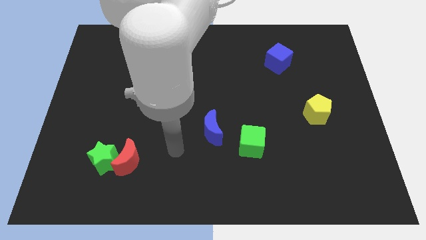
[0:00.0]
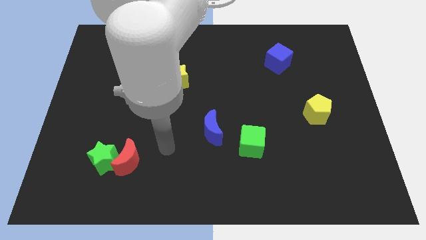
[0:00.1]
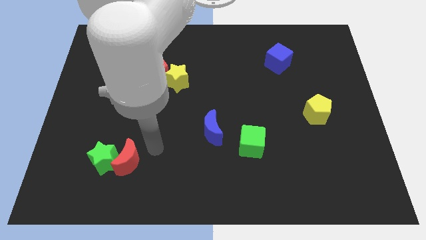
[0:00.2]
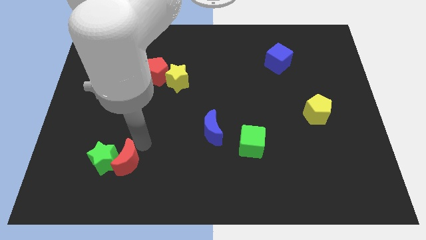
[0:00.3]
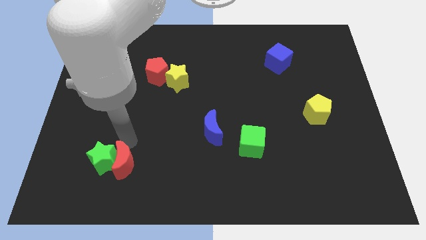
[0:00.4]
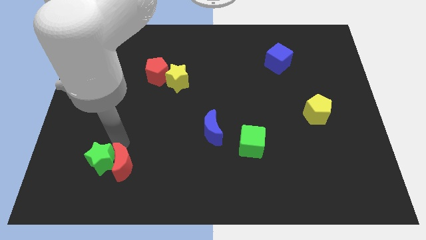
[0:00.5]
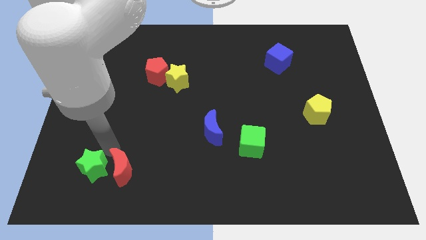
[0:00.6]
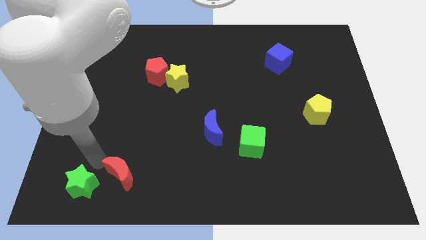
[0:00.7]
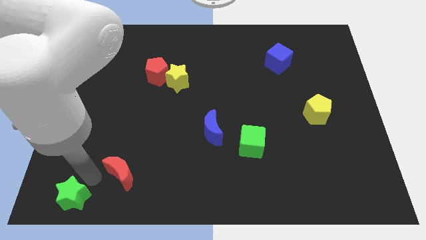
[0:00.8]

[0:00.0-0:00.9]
move the red moon away from the green star

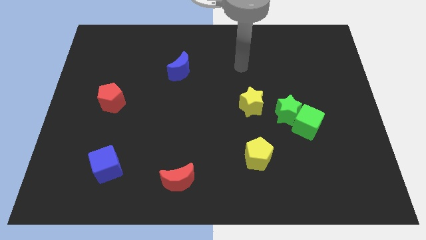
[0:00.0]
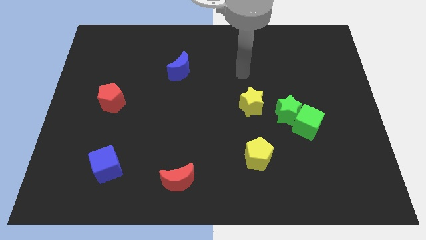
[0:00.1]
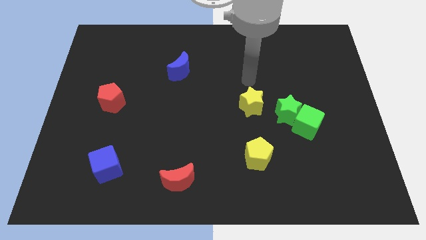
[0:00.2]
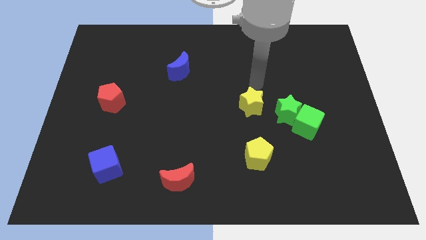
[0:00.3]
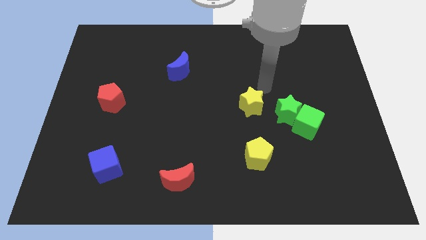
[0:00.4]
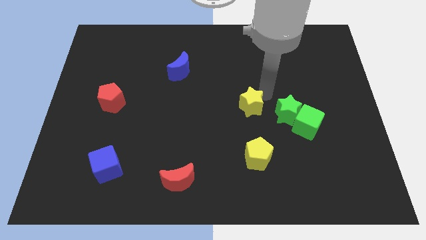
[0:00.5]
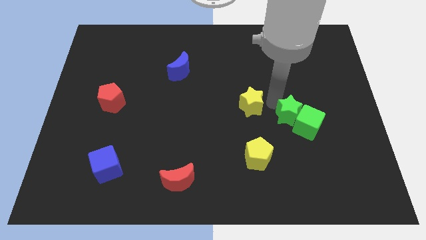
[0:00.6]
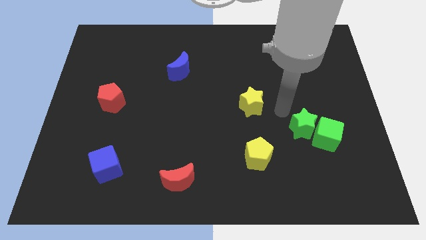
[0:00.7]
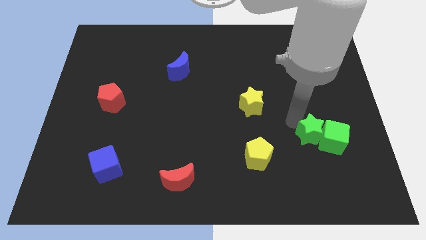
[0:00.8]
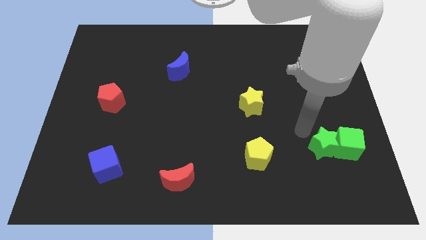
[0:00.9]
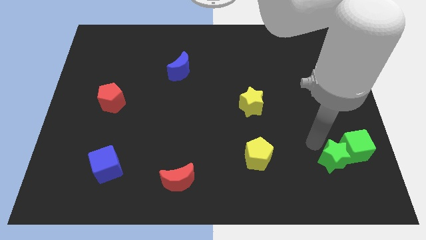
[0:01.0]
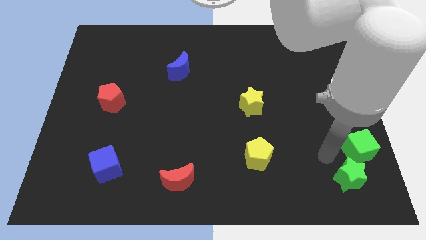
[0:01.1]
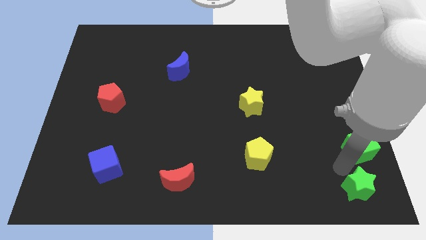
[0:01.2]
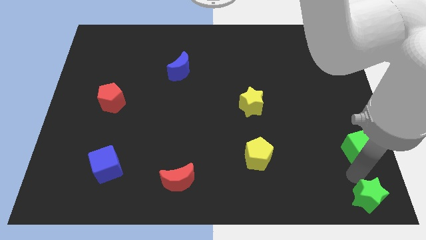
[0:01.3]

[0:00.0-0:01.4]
separate the green cube from the green star

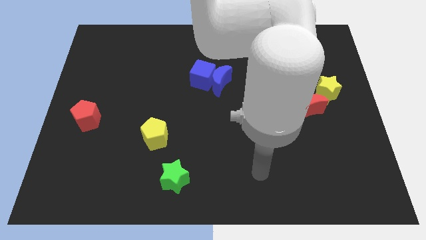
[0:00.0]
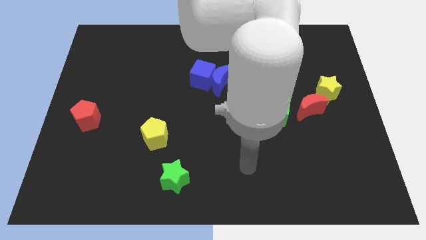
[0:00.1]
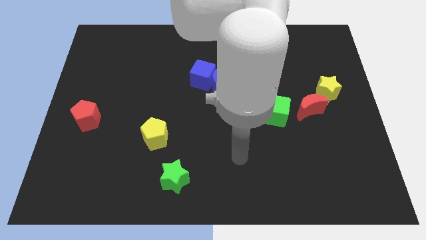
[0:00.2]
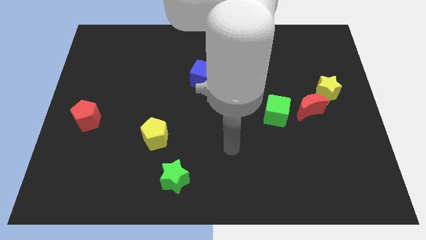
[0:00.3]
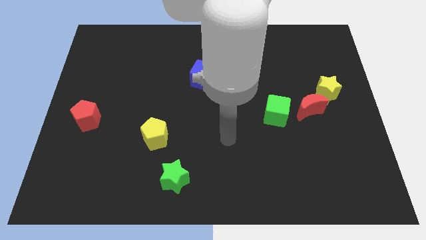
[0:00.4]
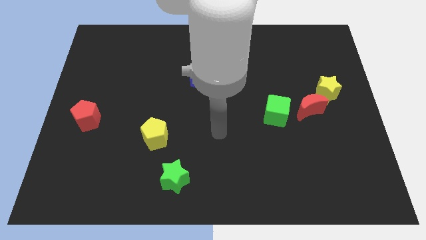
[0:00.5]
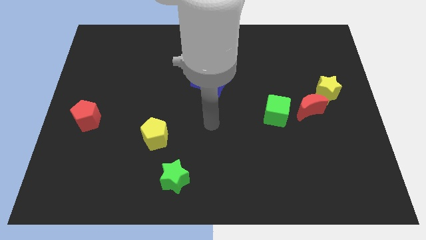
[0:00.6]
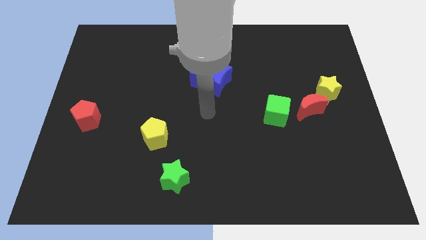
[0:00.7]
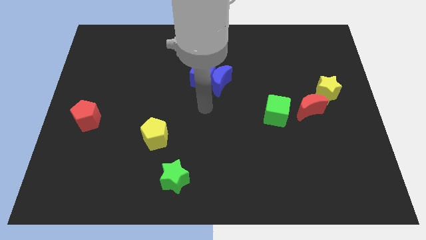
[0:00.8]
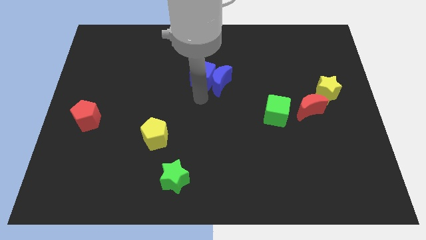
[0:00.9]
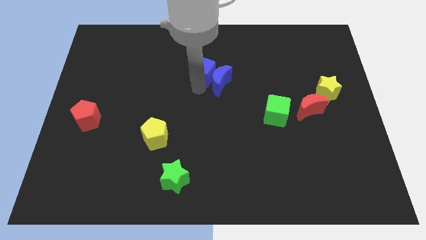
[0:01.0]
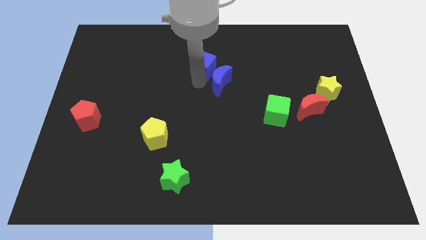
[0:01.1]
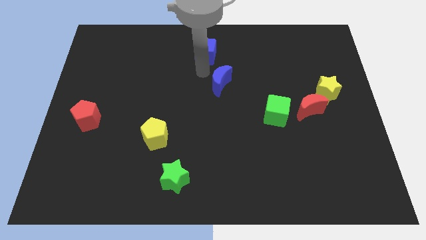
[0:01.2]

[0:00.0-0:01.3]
move the blue moon away from the blue cube

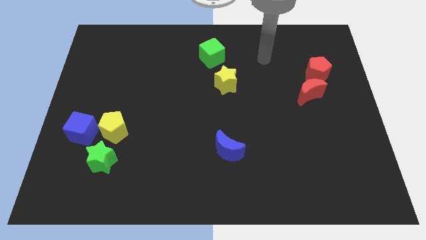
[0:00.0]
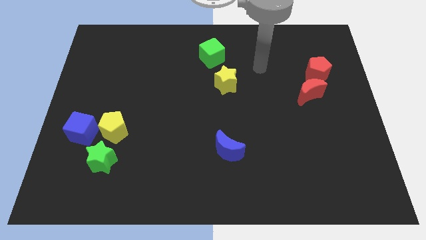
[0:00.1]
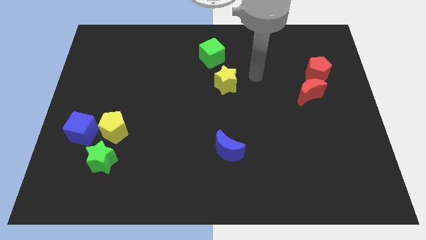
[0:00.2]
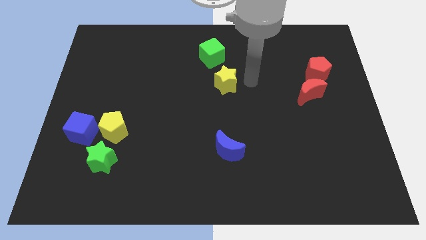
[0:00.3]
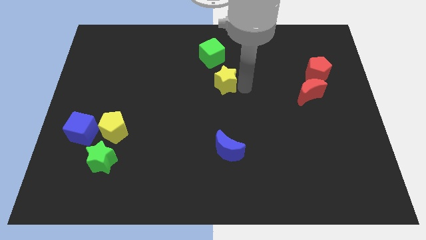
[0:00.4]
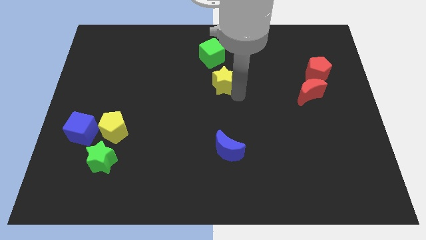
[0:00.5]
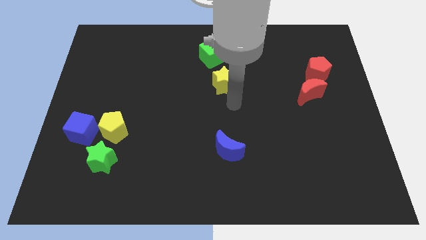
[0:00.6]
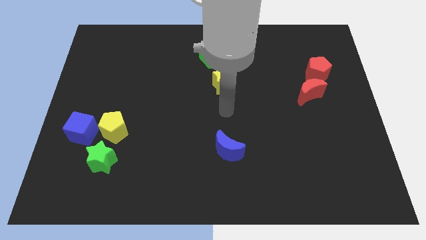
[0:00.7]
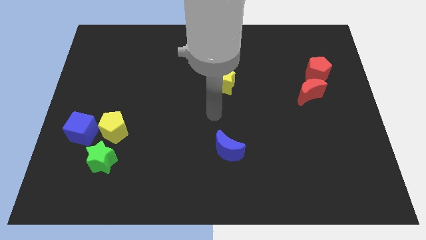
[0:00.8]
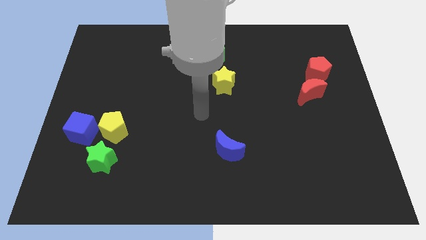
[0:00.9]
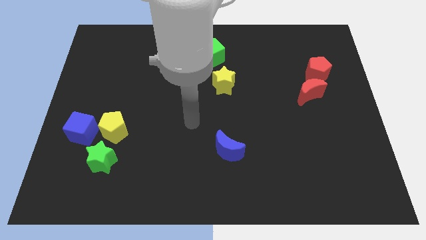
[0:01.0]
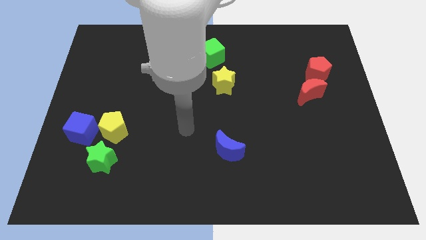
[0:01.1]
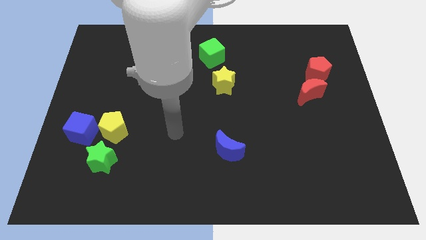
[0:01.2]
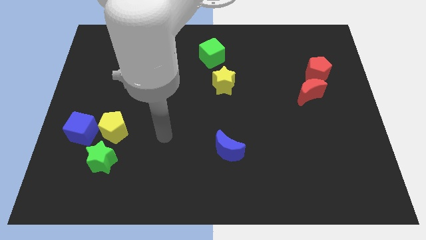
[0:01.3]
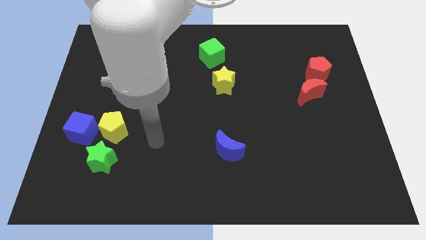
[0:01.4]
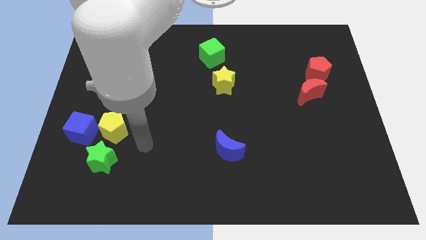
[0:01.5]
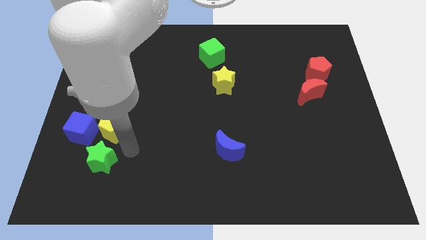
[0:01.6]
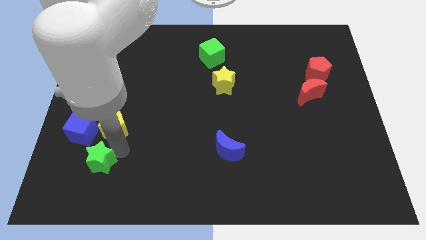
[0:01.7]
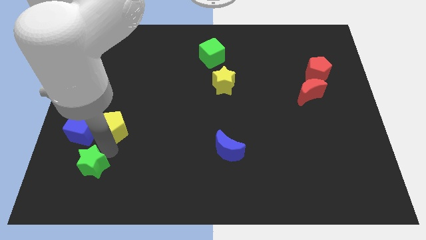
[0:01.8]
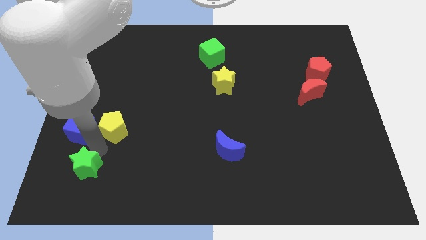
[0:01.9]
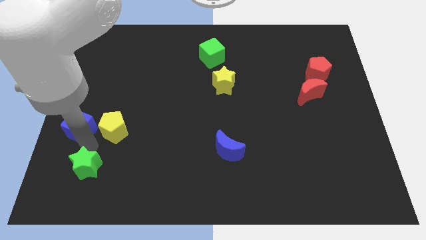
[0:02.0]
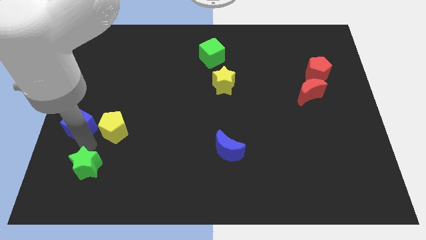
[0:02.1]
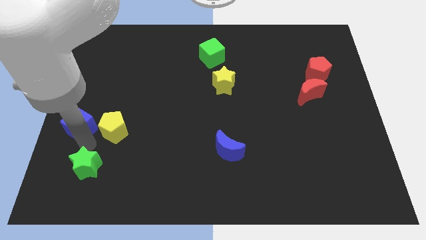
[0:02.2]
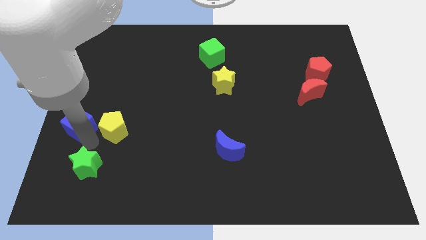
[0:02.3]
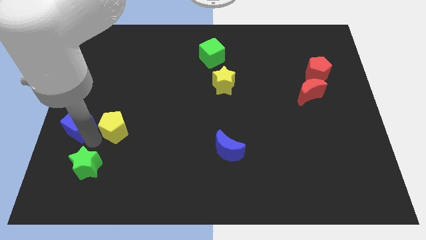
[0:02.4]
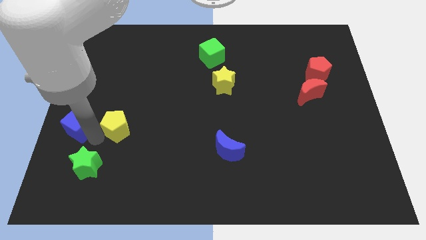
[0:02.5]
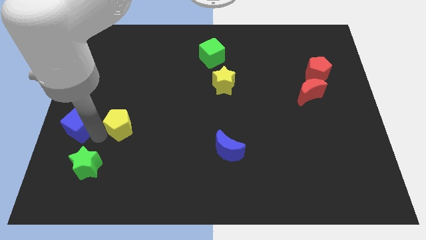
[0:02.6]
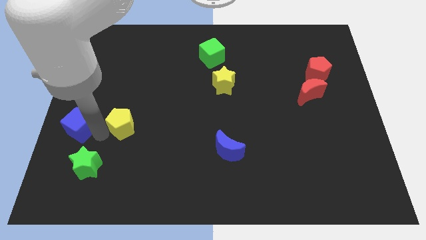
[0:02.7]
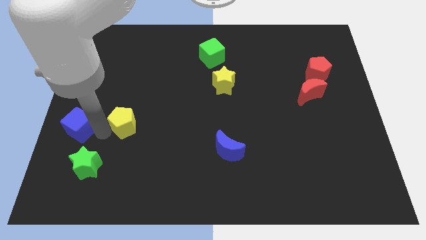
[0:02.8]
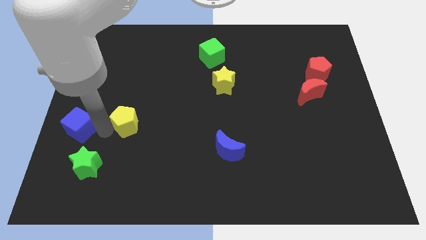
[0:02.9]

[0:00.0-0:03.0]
move the yellow pentagon away from the blue cube and green star

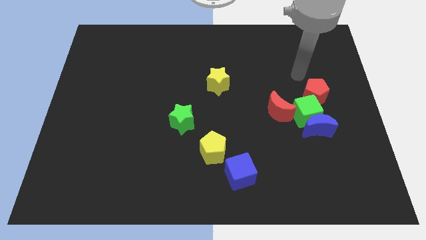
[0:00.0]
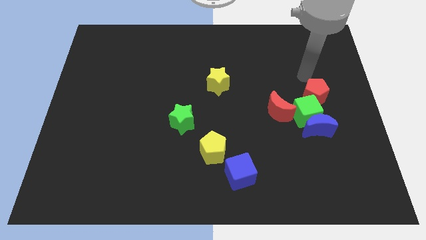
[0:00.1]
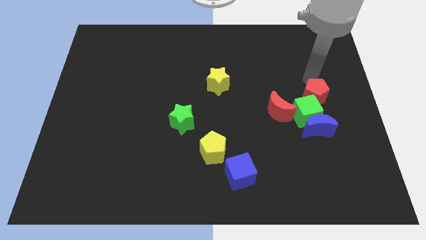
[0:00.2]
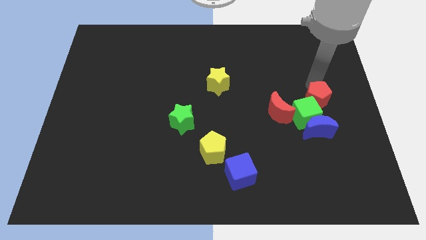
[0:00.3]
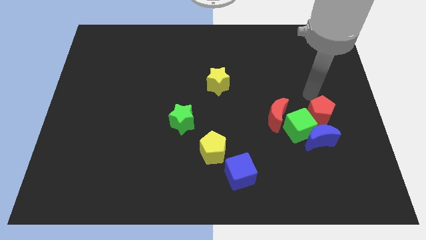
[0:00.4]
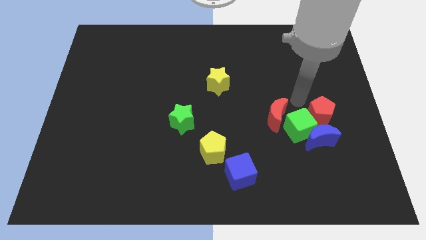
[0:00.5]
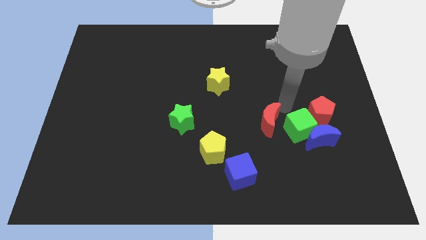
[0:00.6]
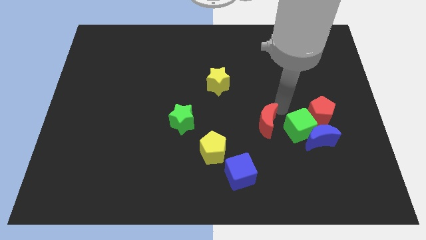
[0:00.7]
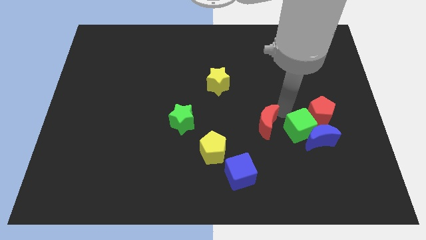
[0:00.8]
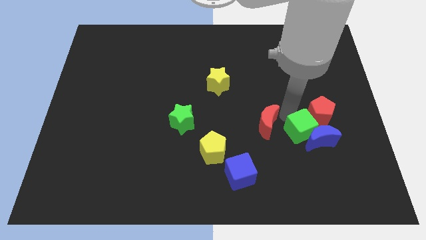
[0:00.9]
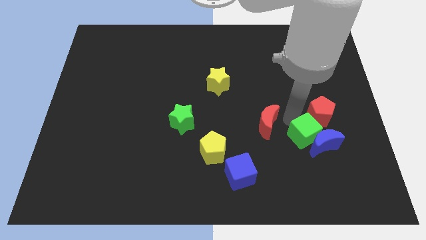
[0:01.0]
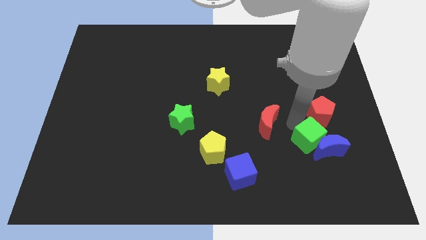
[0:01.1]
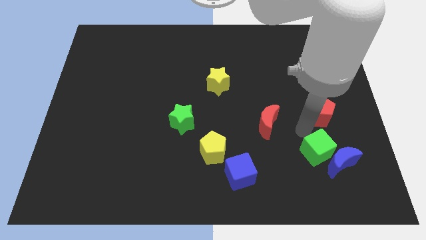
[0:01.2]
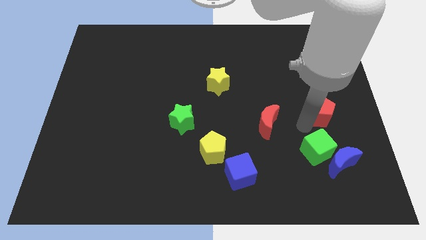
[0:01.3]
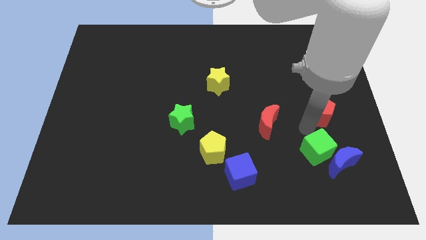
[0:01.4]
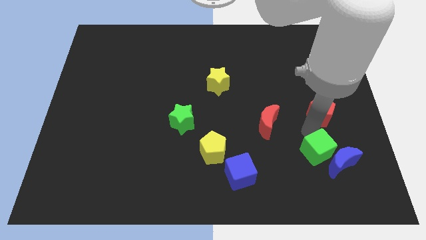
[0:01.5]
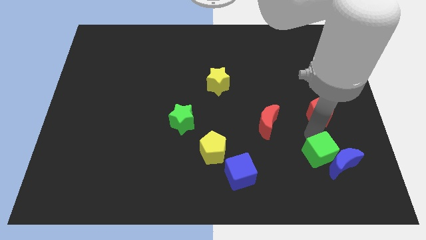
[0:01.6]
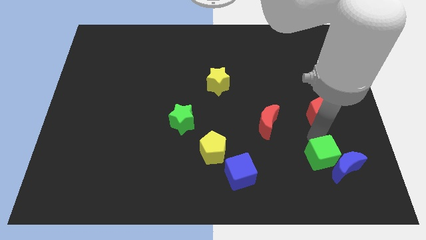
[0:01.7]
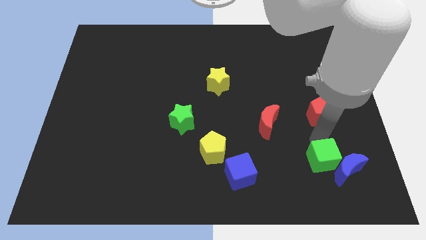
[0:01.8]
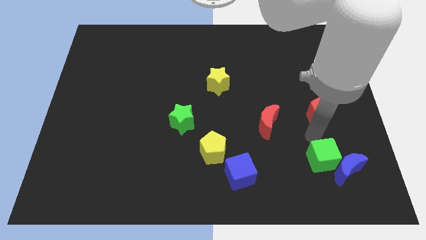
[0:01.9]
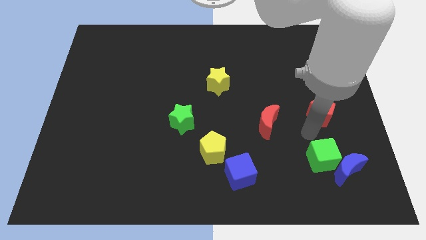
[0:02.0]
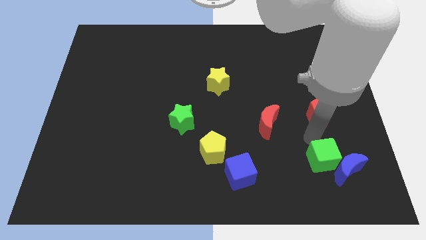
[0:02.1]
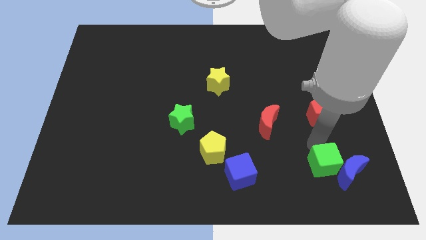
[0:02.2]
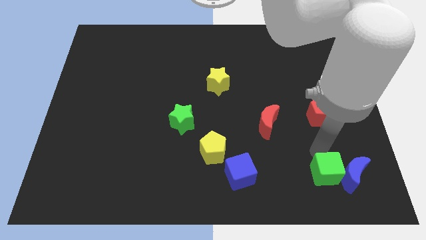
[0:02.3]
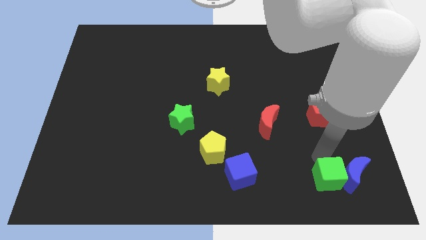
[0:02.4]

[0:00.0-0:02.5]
separate the green cube from the clump

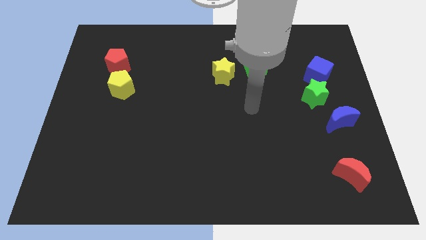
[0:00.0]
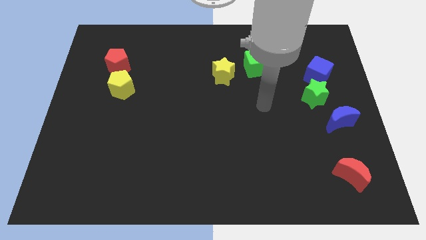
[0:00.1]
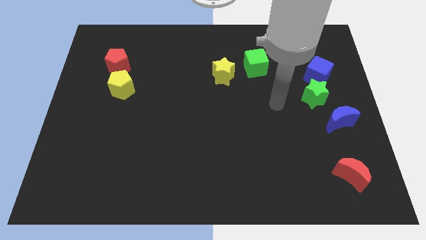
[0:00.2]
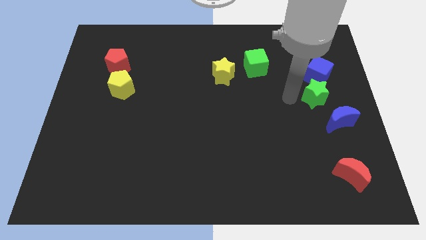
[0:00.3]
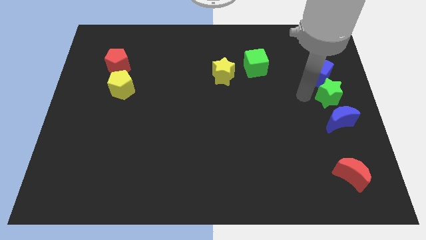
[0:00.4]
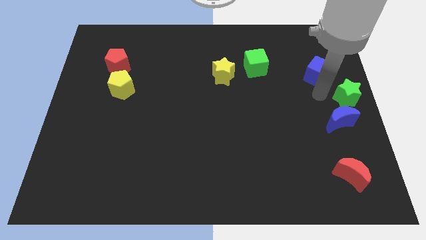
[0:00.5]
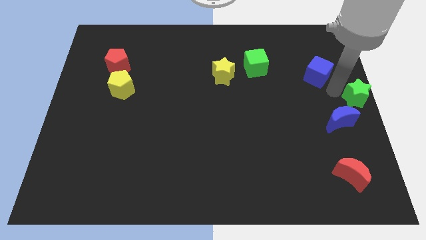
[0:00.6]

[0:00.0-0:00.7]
move the blue cube away from the green star
